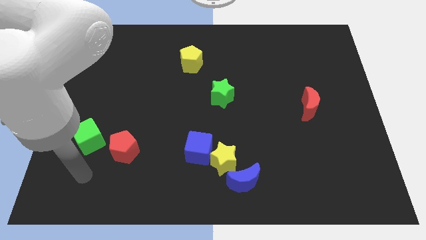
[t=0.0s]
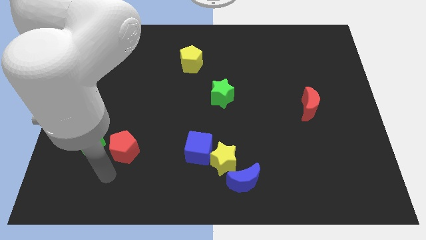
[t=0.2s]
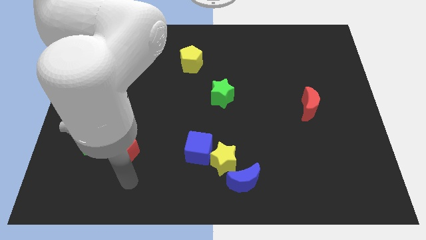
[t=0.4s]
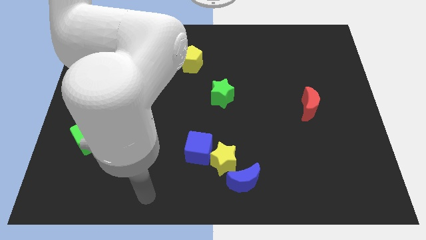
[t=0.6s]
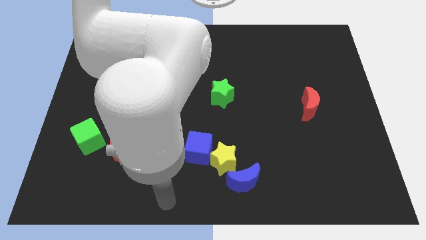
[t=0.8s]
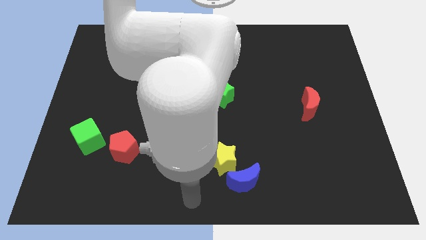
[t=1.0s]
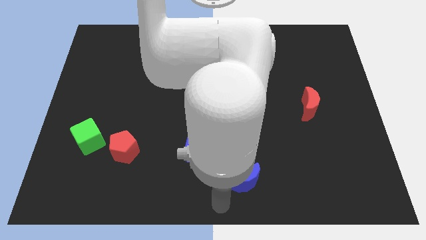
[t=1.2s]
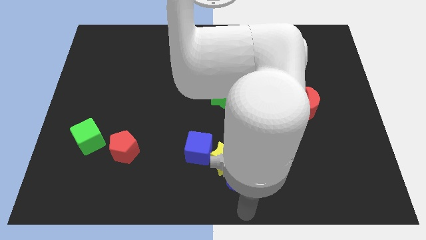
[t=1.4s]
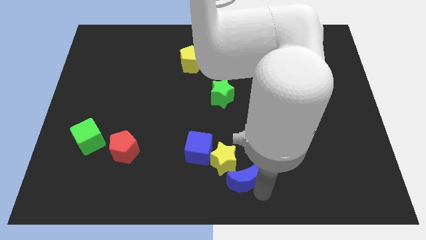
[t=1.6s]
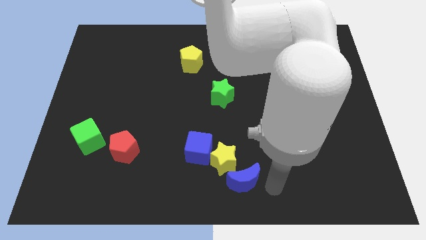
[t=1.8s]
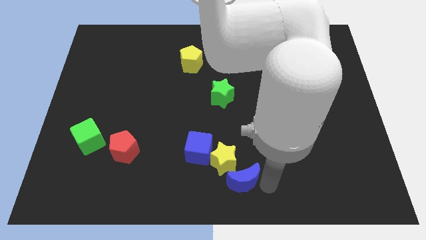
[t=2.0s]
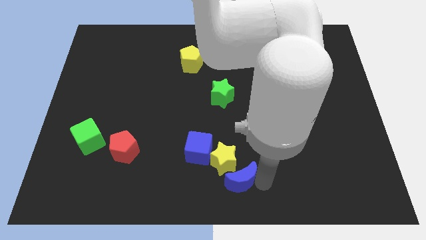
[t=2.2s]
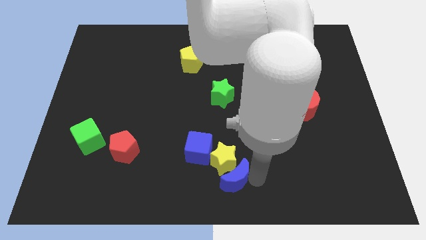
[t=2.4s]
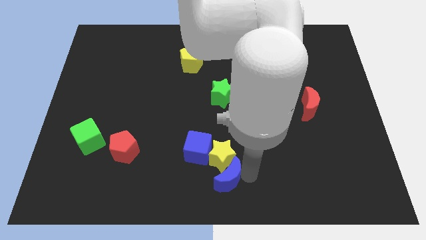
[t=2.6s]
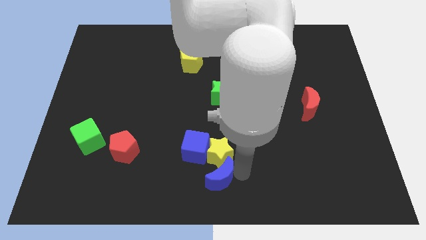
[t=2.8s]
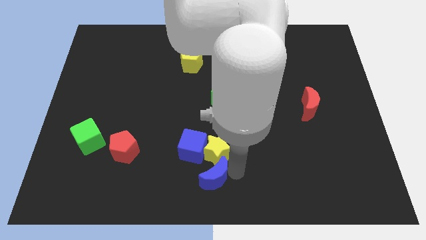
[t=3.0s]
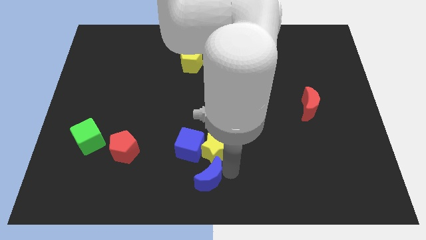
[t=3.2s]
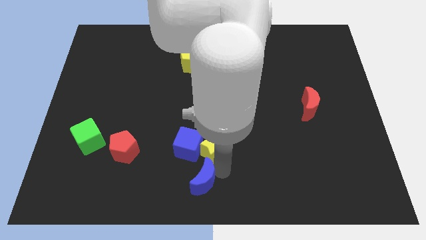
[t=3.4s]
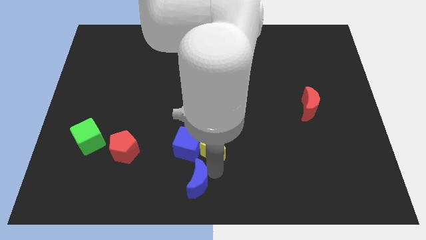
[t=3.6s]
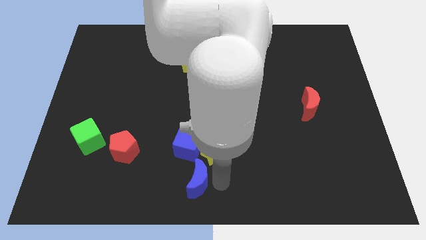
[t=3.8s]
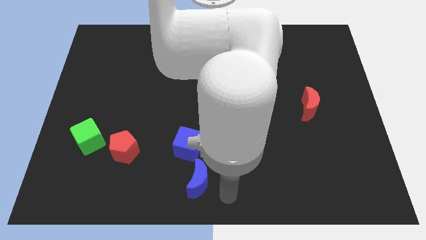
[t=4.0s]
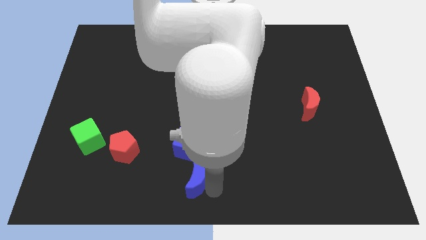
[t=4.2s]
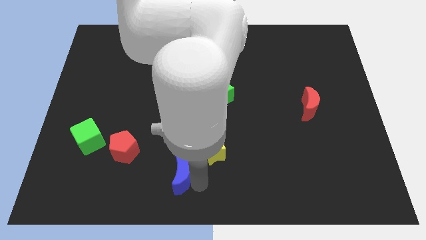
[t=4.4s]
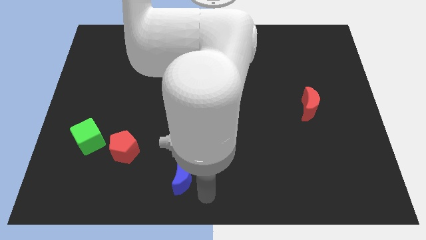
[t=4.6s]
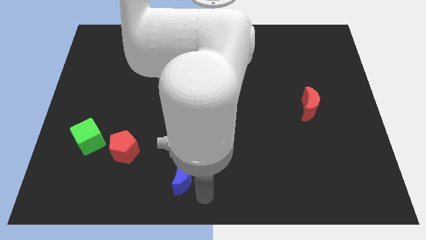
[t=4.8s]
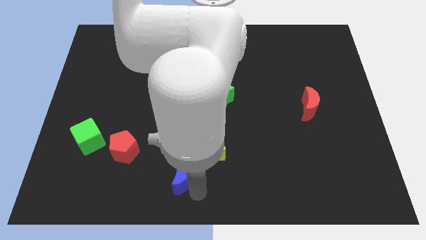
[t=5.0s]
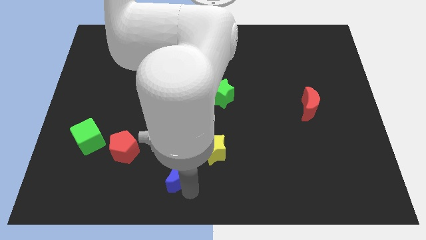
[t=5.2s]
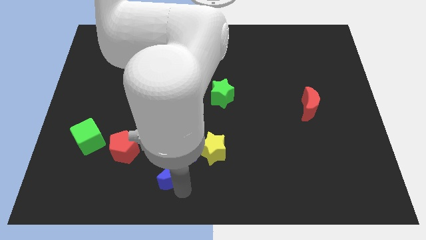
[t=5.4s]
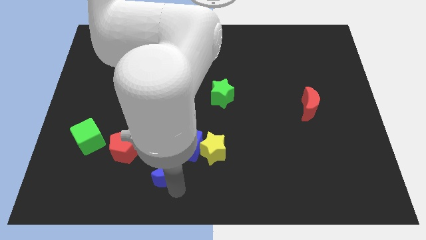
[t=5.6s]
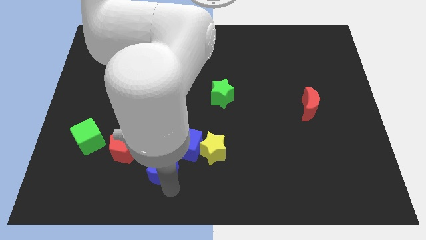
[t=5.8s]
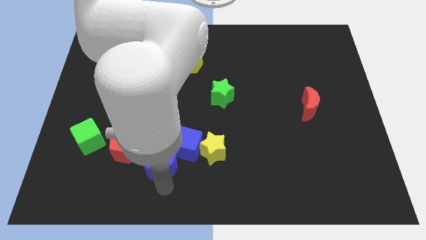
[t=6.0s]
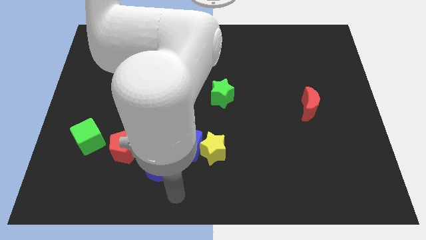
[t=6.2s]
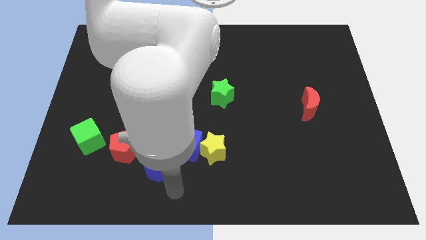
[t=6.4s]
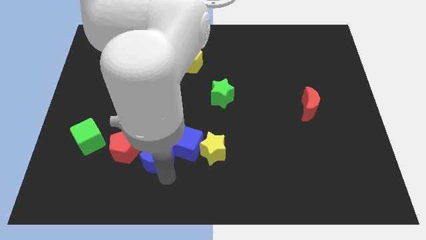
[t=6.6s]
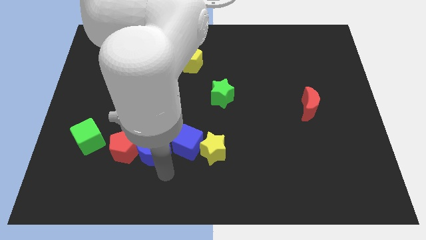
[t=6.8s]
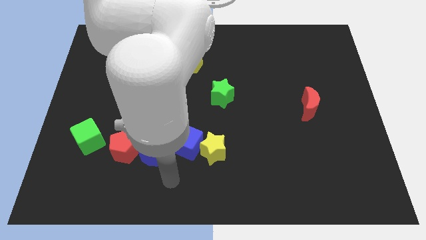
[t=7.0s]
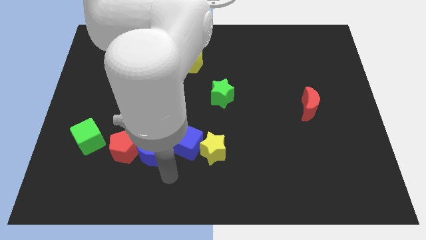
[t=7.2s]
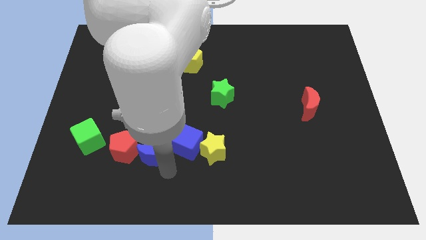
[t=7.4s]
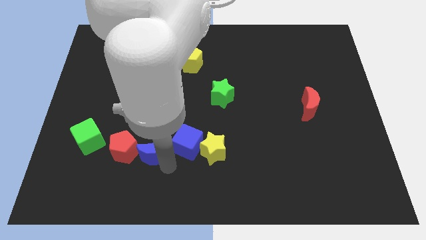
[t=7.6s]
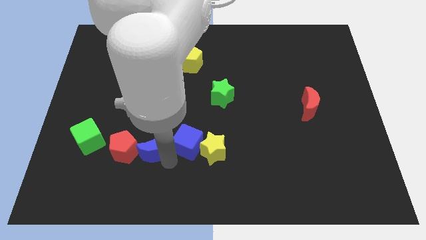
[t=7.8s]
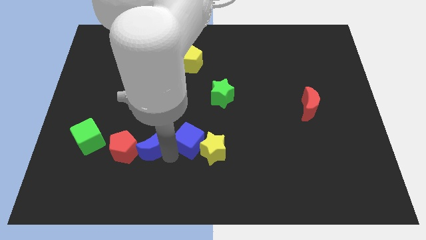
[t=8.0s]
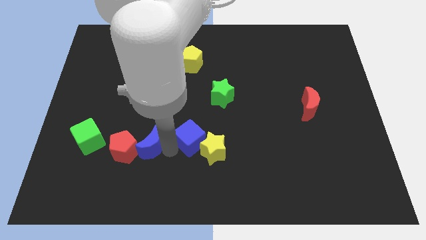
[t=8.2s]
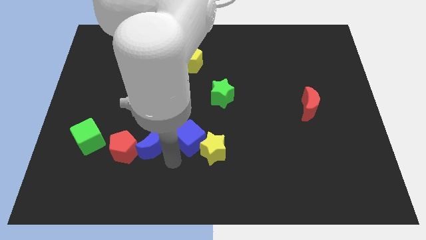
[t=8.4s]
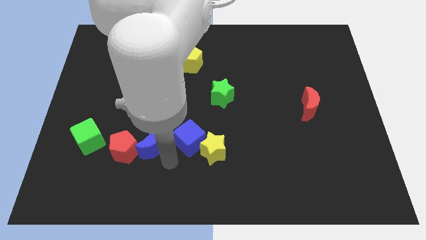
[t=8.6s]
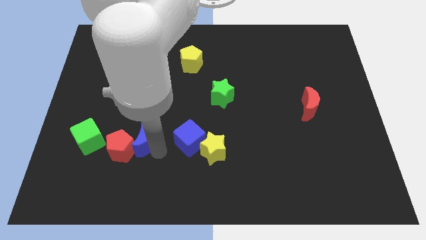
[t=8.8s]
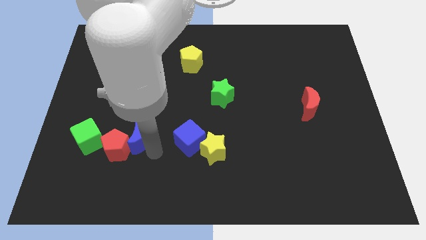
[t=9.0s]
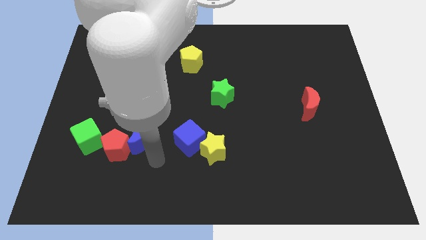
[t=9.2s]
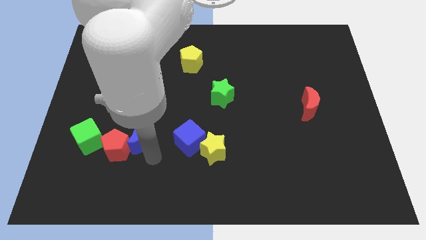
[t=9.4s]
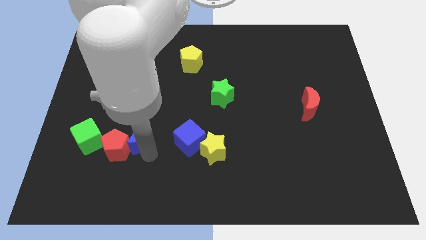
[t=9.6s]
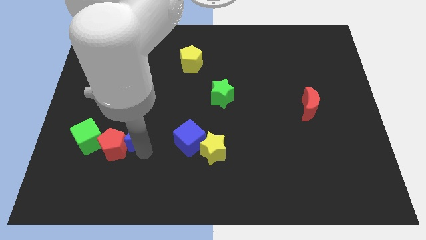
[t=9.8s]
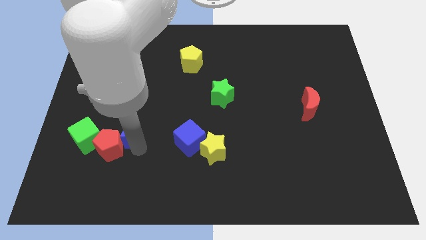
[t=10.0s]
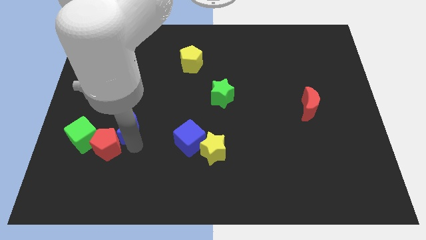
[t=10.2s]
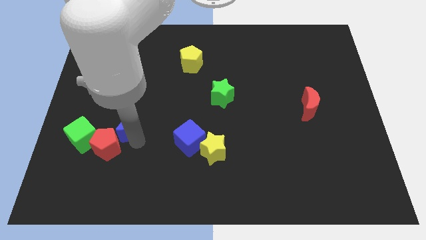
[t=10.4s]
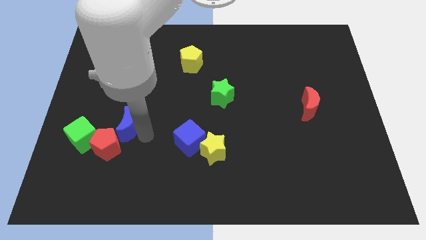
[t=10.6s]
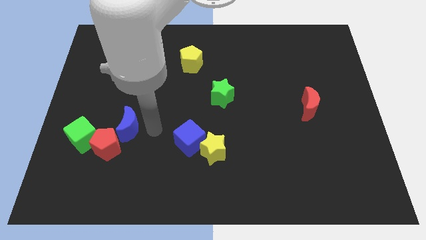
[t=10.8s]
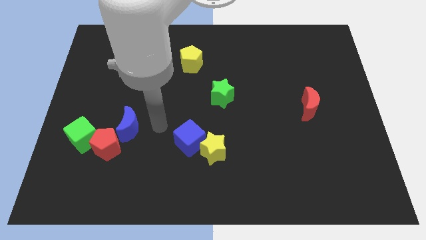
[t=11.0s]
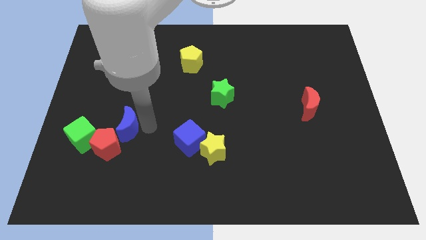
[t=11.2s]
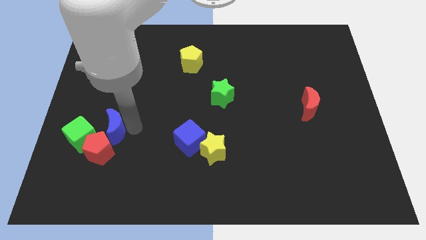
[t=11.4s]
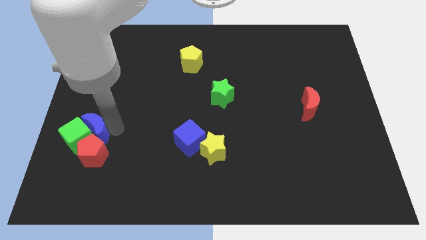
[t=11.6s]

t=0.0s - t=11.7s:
slide the blue moon to the top left of the red pentagon
